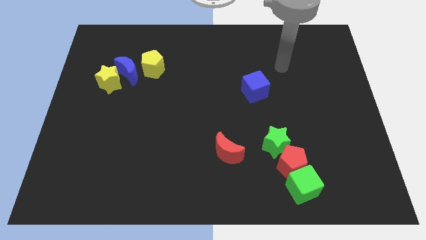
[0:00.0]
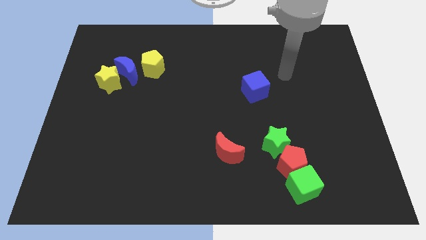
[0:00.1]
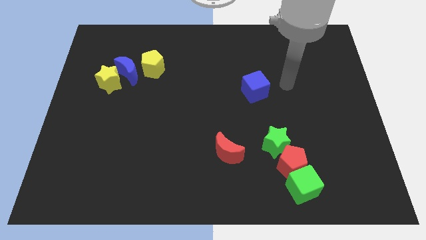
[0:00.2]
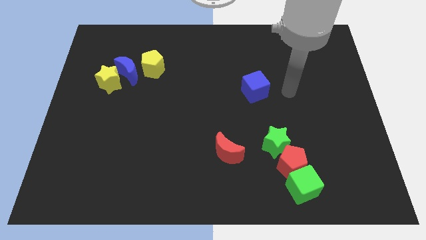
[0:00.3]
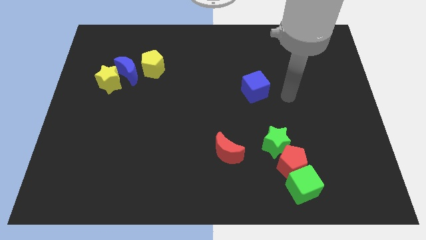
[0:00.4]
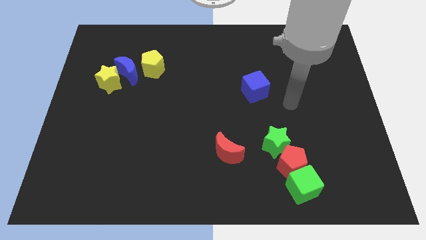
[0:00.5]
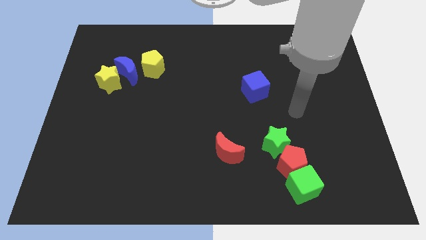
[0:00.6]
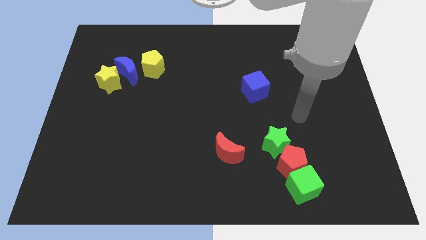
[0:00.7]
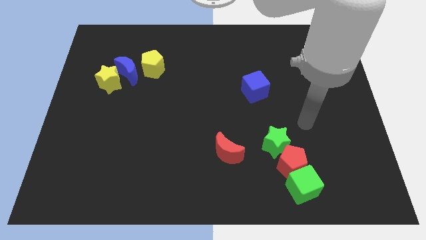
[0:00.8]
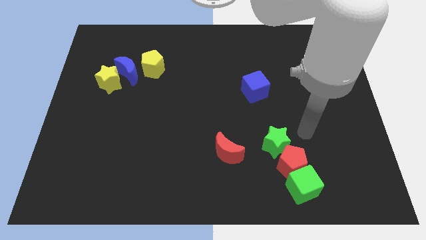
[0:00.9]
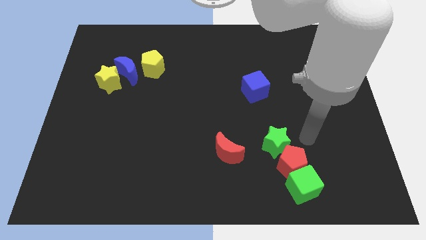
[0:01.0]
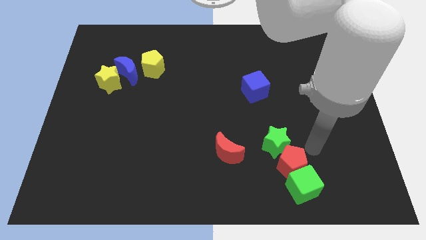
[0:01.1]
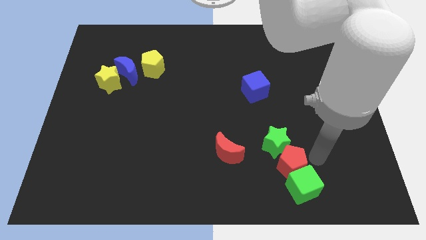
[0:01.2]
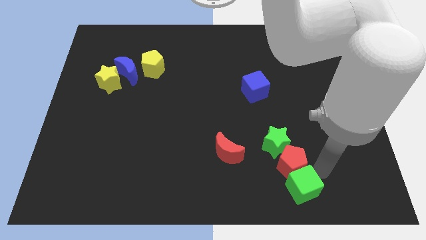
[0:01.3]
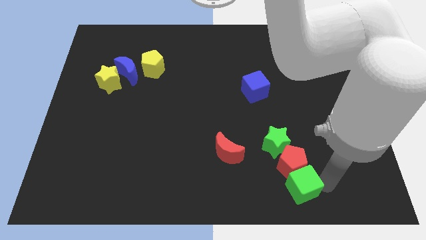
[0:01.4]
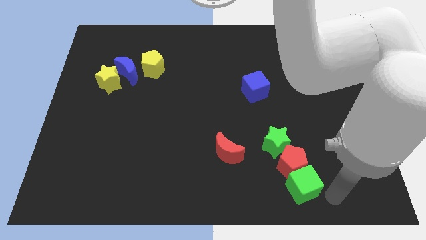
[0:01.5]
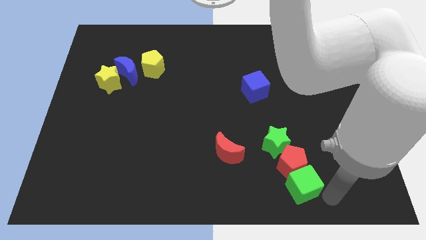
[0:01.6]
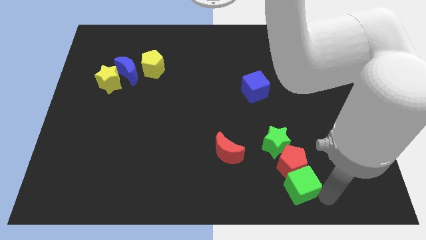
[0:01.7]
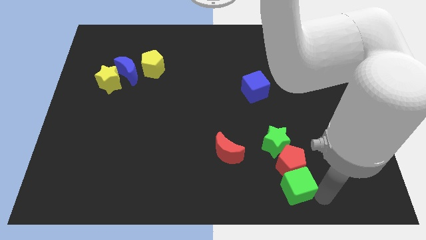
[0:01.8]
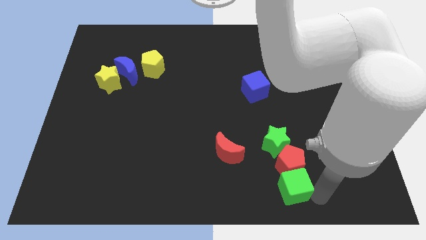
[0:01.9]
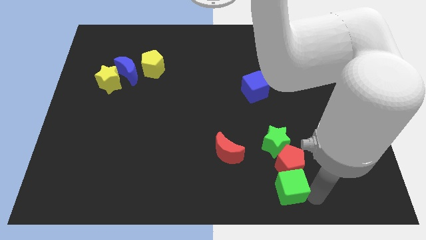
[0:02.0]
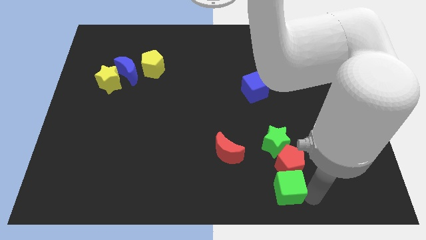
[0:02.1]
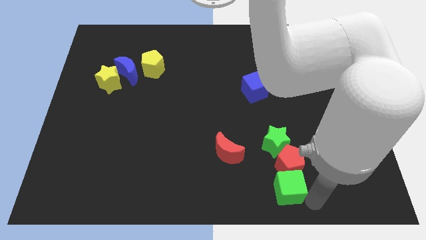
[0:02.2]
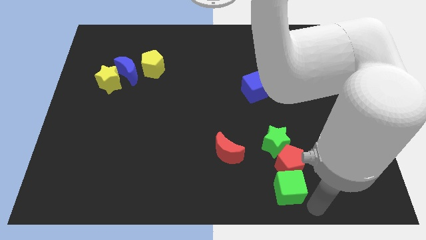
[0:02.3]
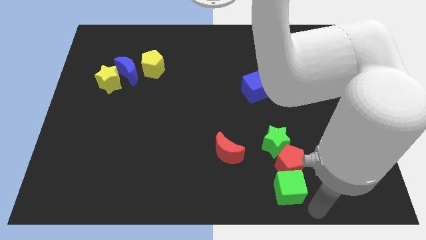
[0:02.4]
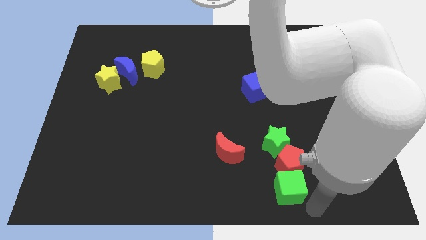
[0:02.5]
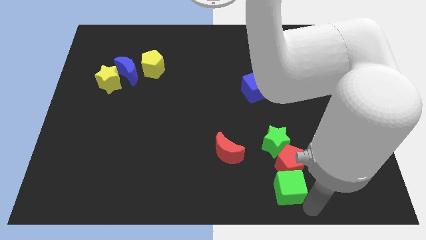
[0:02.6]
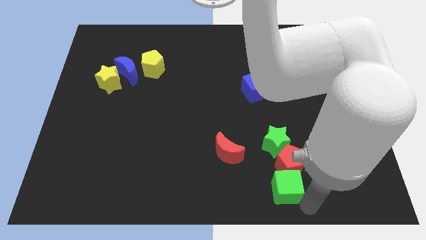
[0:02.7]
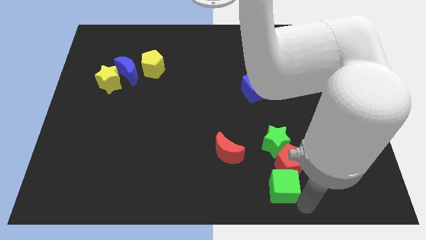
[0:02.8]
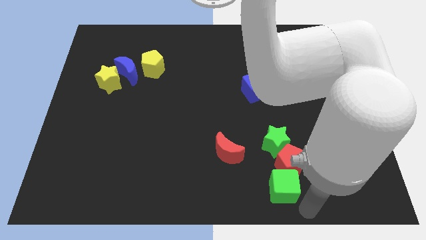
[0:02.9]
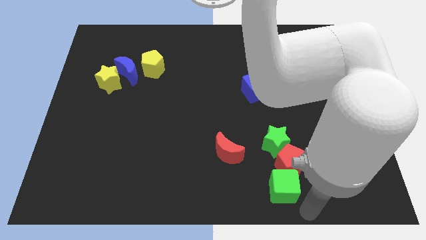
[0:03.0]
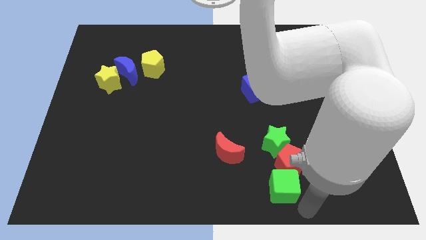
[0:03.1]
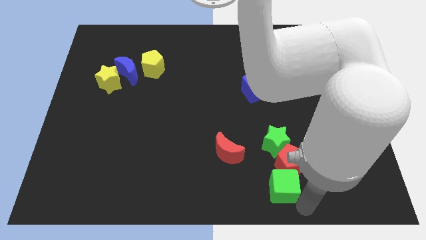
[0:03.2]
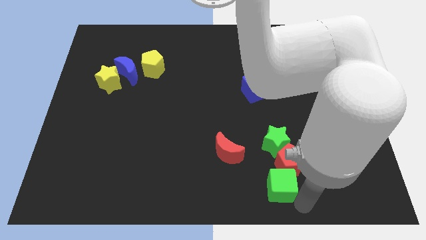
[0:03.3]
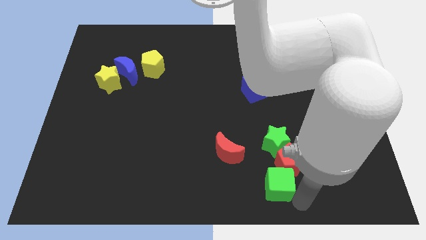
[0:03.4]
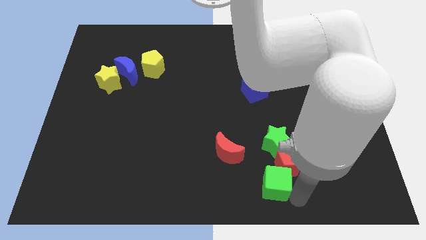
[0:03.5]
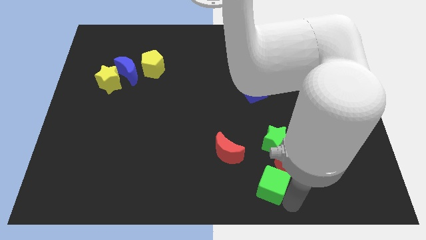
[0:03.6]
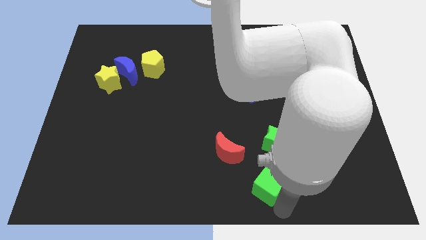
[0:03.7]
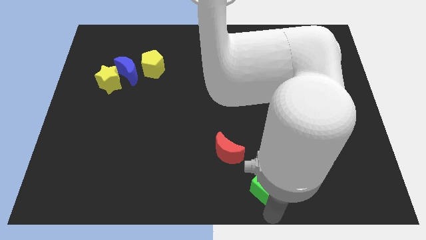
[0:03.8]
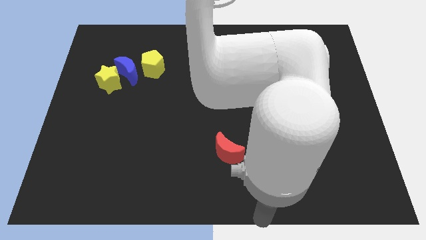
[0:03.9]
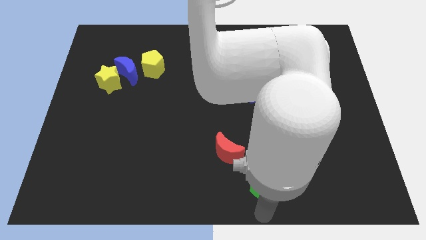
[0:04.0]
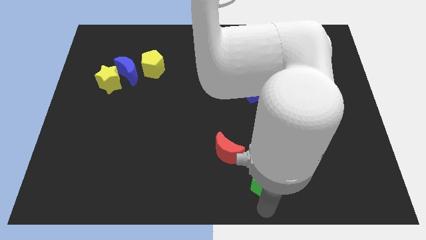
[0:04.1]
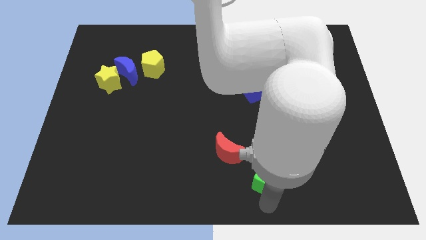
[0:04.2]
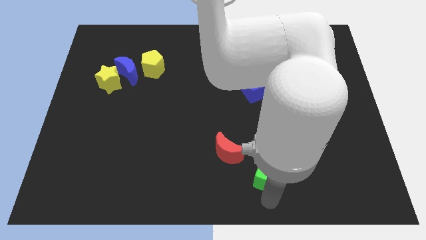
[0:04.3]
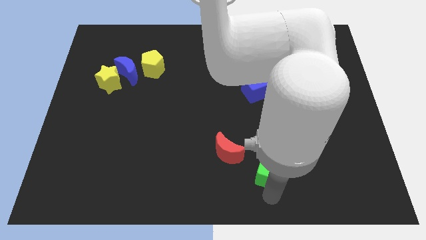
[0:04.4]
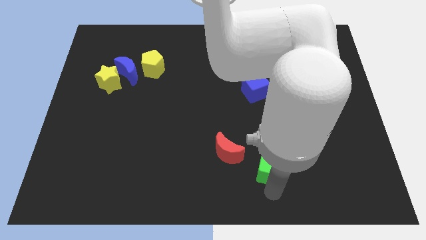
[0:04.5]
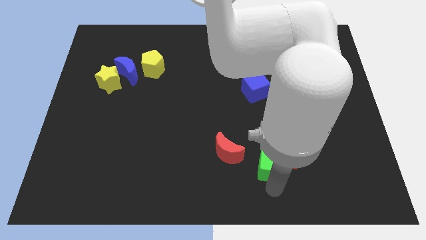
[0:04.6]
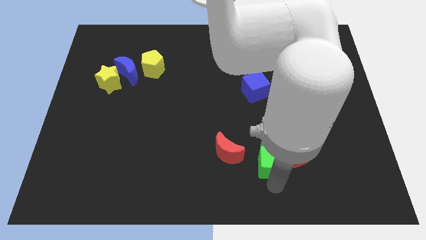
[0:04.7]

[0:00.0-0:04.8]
push the green cube towards the green star

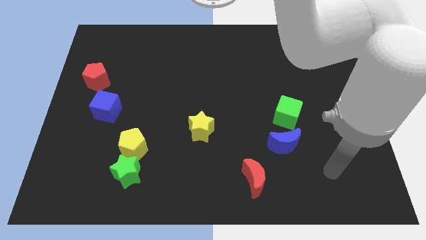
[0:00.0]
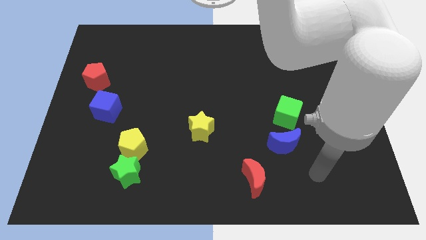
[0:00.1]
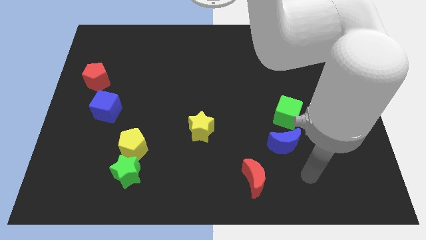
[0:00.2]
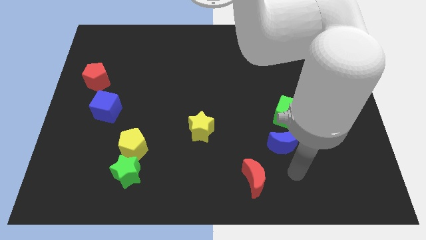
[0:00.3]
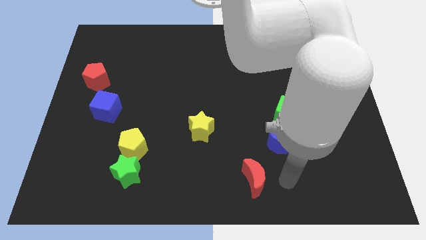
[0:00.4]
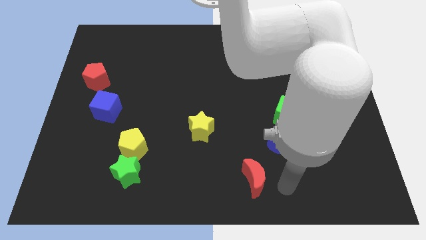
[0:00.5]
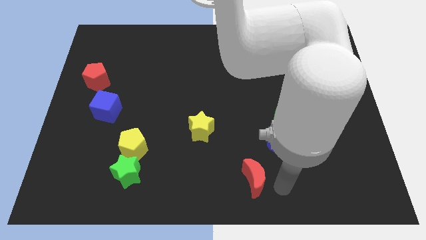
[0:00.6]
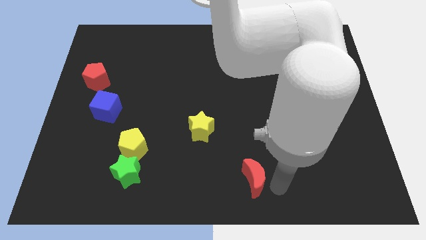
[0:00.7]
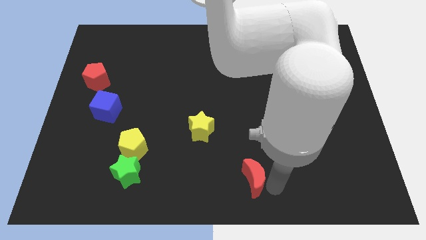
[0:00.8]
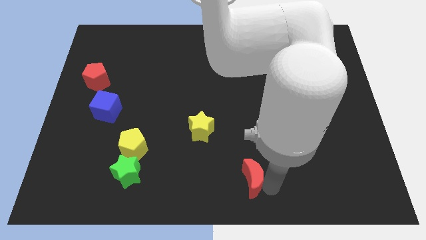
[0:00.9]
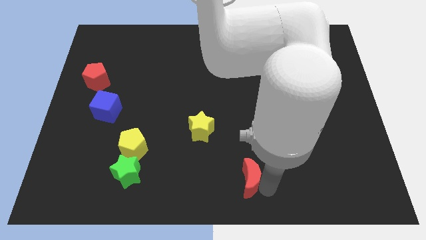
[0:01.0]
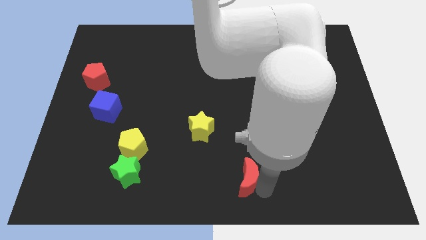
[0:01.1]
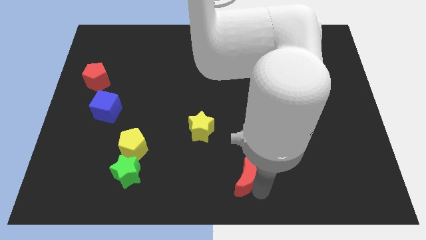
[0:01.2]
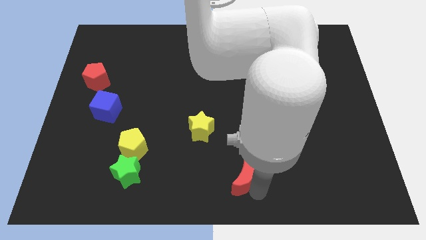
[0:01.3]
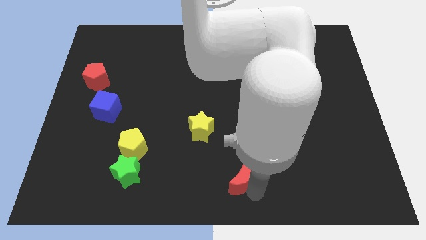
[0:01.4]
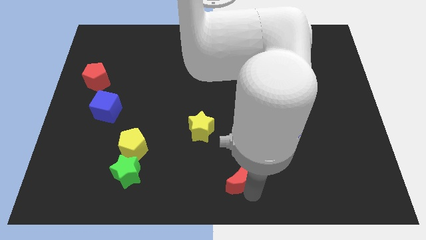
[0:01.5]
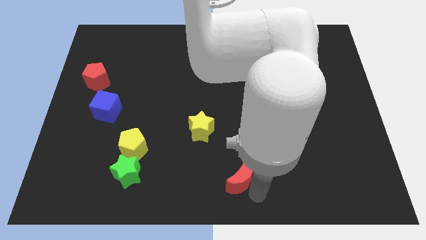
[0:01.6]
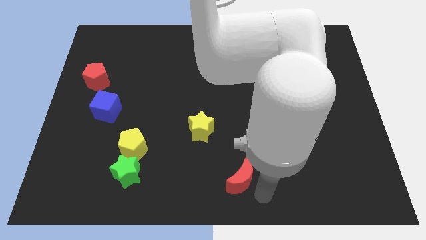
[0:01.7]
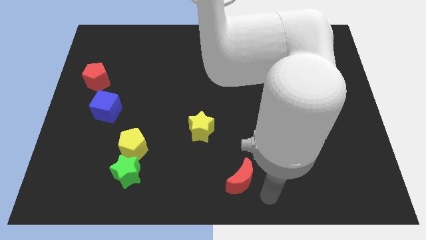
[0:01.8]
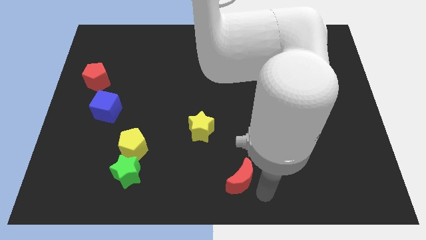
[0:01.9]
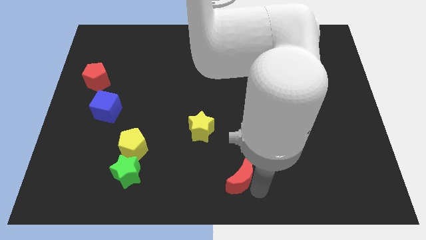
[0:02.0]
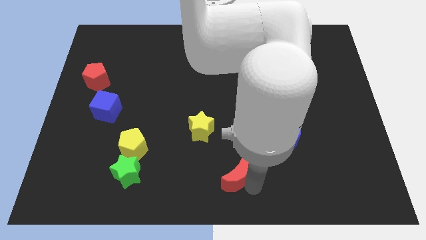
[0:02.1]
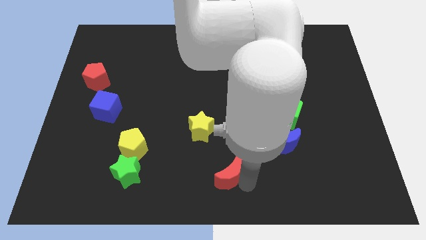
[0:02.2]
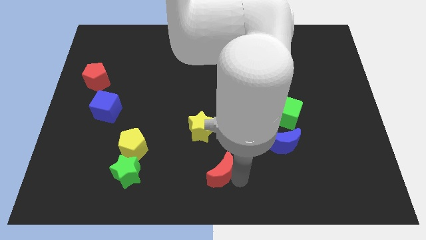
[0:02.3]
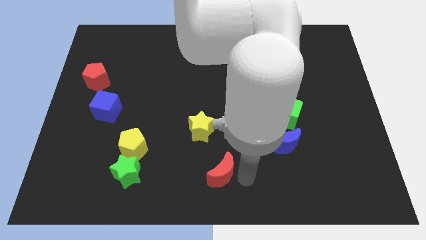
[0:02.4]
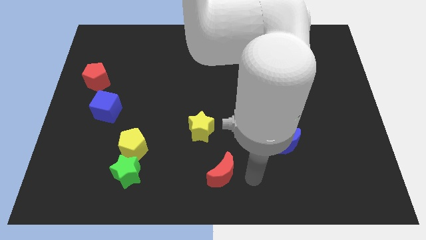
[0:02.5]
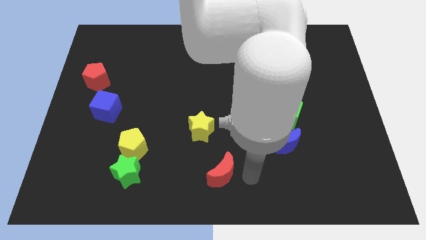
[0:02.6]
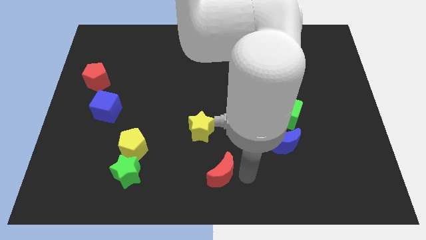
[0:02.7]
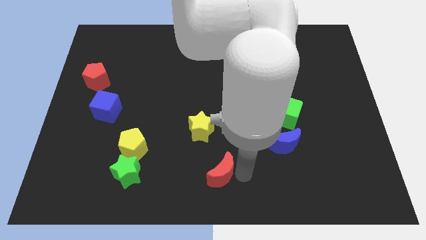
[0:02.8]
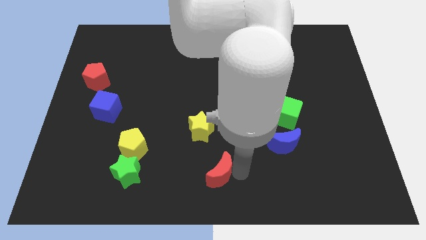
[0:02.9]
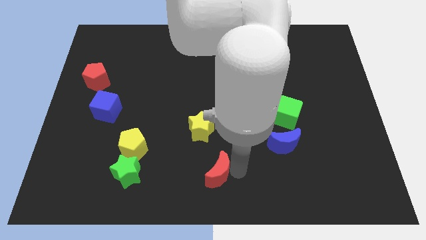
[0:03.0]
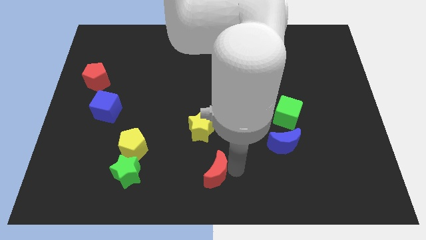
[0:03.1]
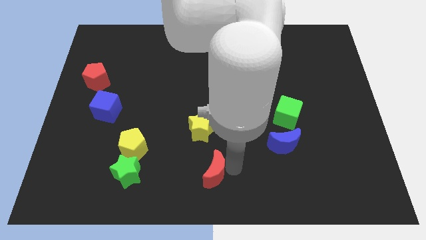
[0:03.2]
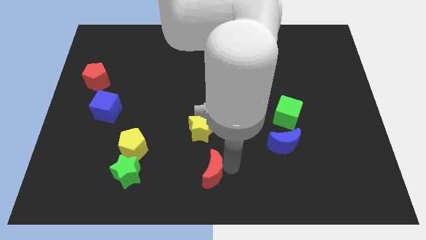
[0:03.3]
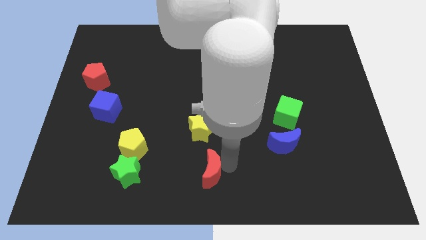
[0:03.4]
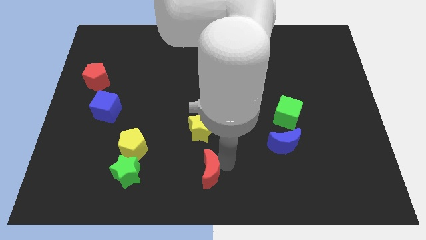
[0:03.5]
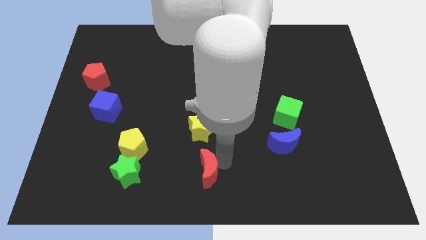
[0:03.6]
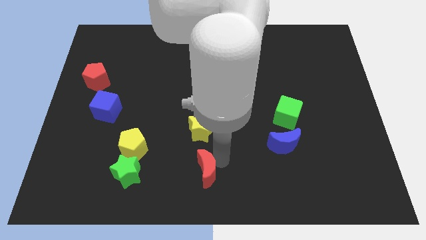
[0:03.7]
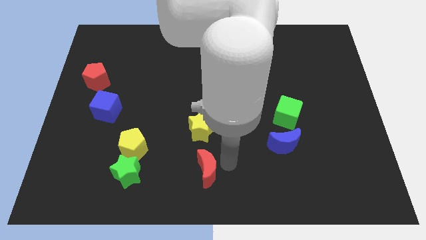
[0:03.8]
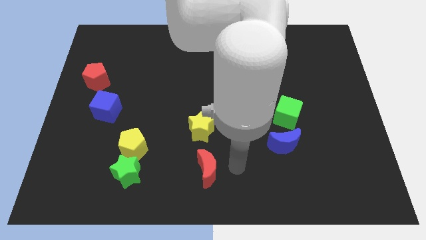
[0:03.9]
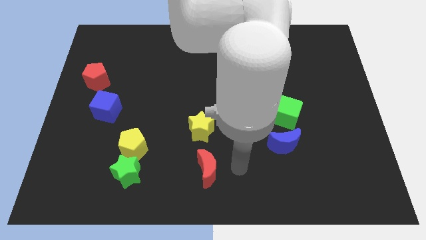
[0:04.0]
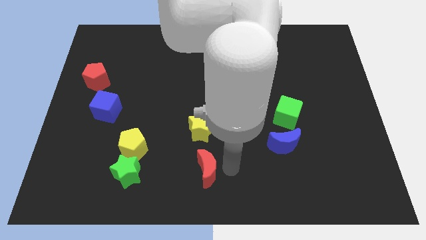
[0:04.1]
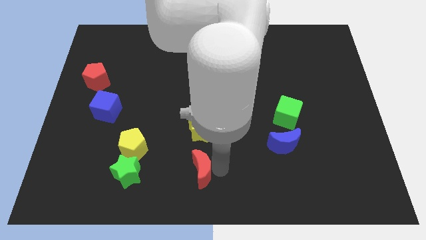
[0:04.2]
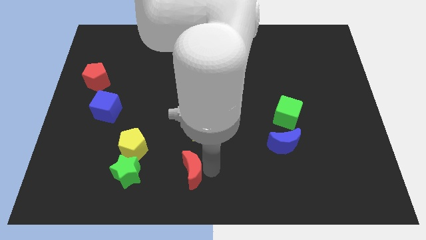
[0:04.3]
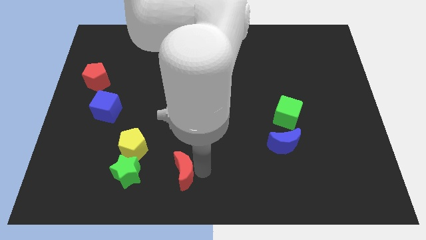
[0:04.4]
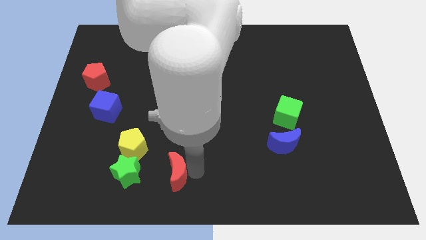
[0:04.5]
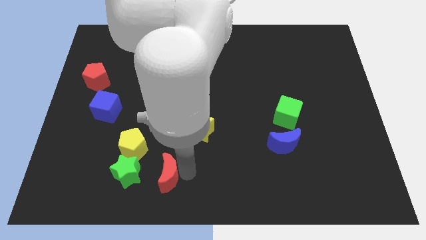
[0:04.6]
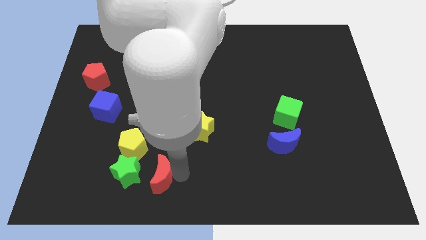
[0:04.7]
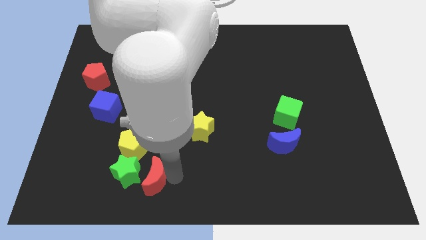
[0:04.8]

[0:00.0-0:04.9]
move the red moon towards the green star
